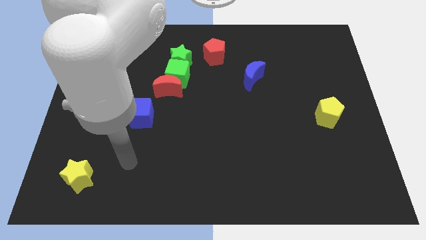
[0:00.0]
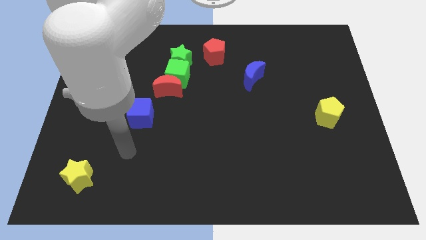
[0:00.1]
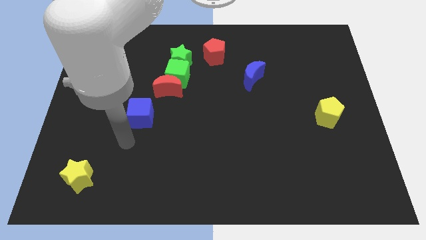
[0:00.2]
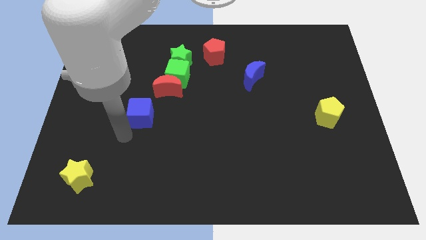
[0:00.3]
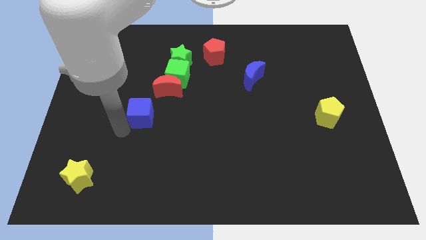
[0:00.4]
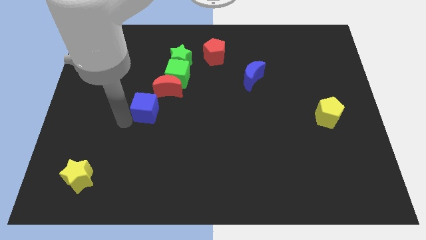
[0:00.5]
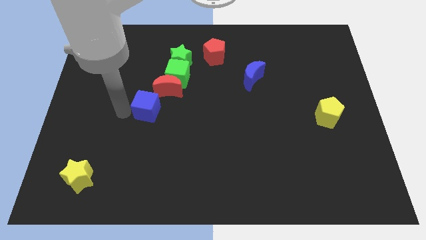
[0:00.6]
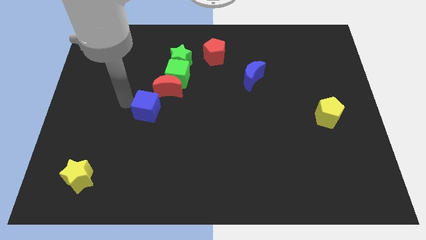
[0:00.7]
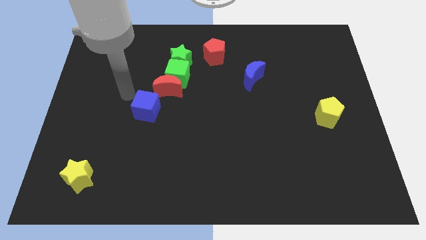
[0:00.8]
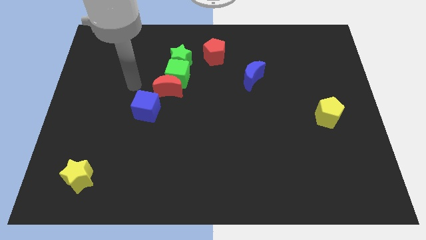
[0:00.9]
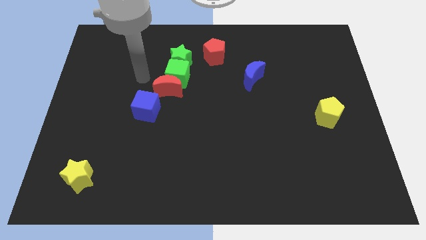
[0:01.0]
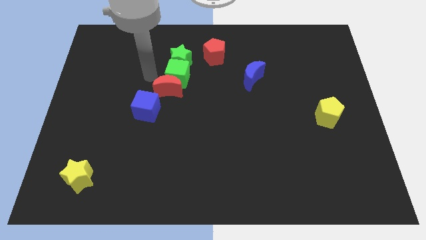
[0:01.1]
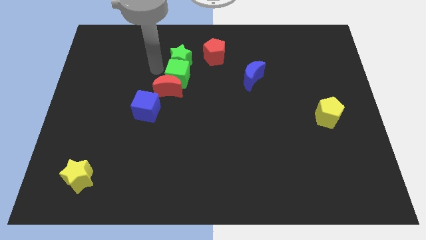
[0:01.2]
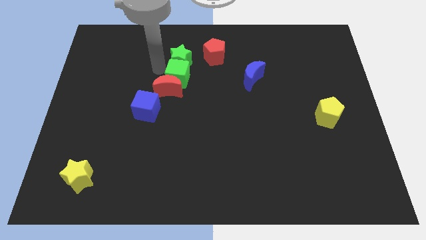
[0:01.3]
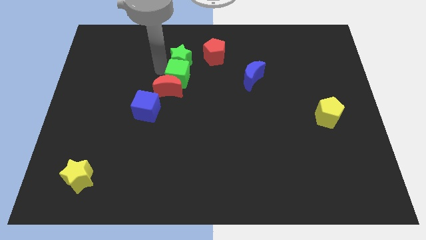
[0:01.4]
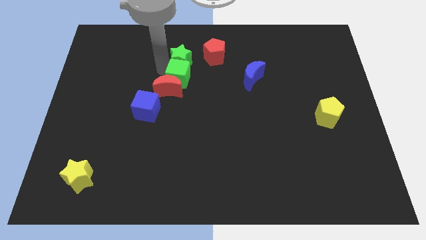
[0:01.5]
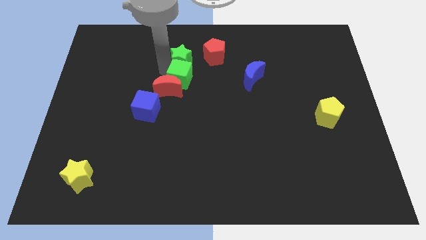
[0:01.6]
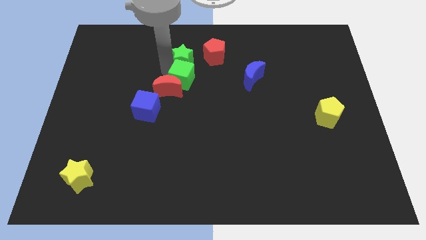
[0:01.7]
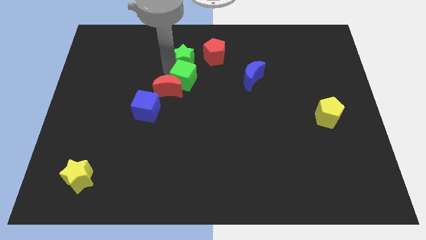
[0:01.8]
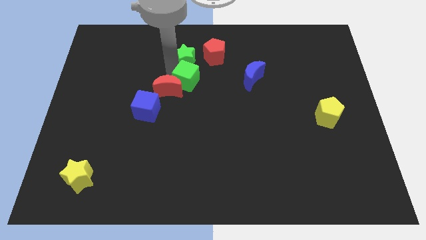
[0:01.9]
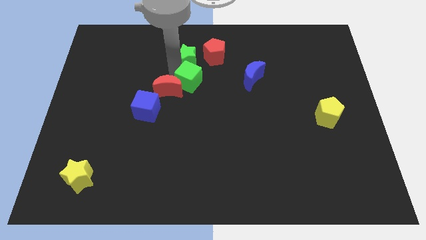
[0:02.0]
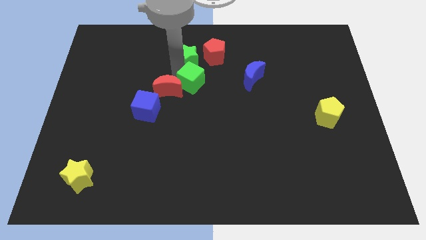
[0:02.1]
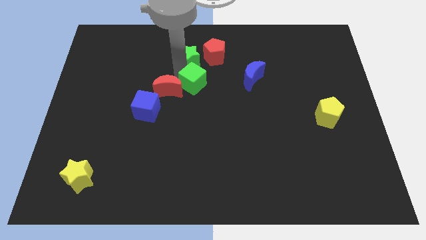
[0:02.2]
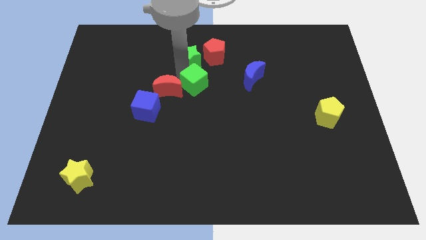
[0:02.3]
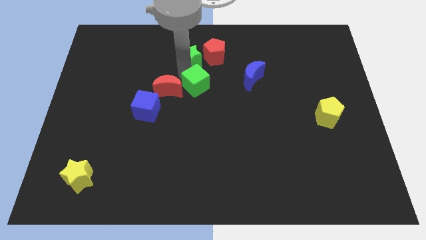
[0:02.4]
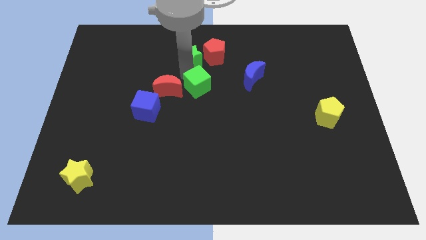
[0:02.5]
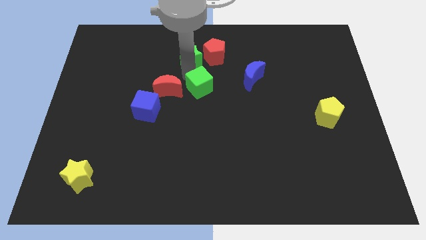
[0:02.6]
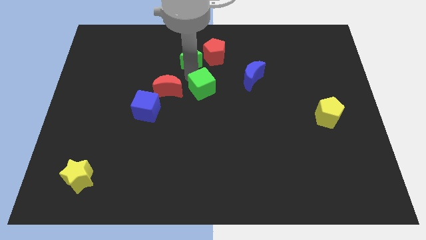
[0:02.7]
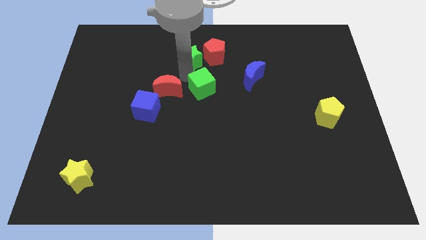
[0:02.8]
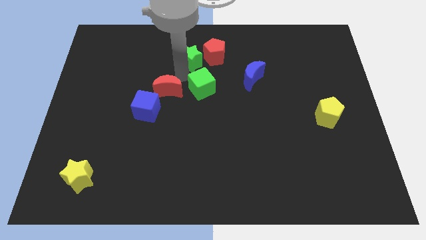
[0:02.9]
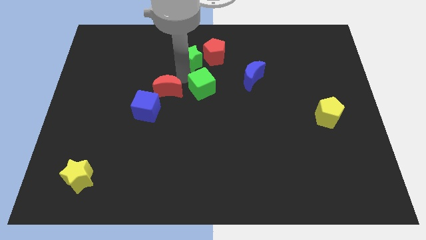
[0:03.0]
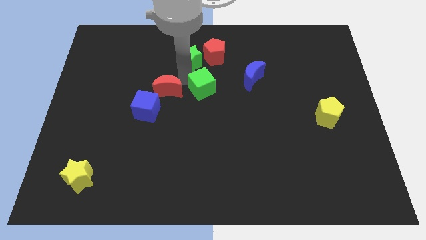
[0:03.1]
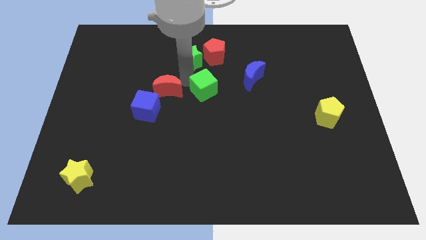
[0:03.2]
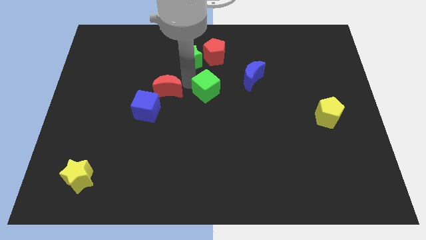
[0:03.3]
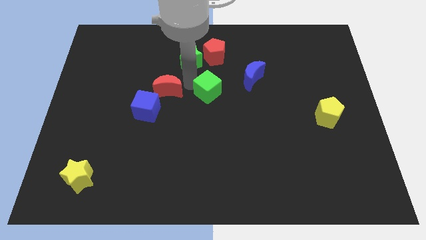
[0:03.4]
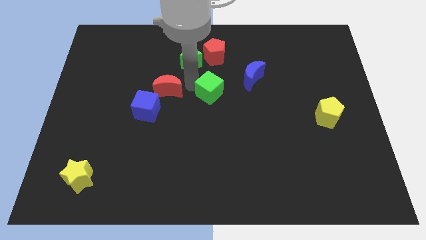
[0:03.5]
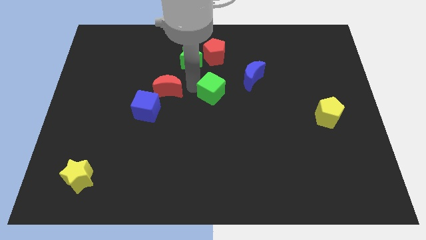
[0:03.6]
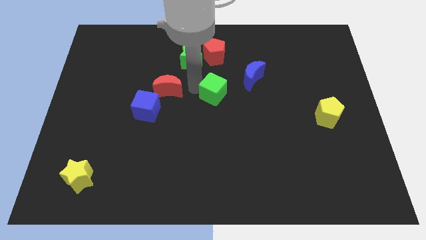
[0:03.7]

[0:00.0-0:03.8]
move the green cube away from the red moon and green star

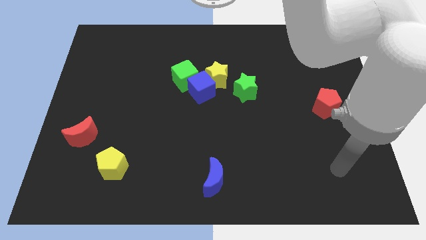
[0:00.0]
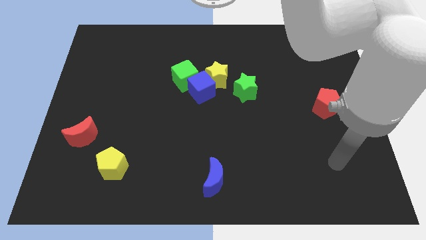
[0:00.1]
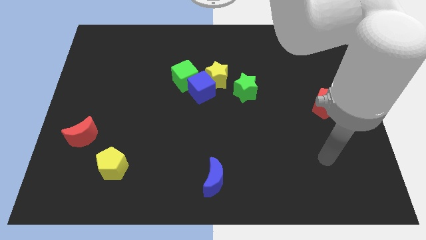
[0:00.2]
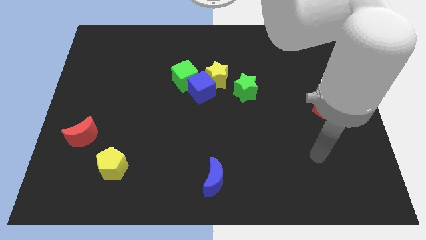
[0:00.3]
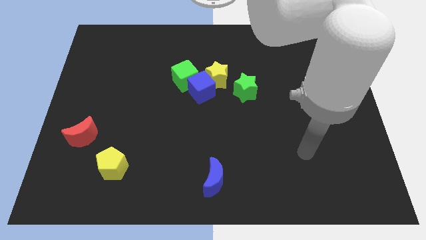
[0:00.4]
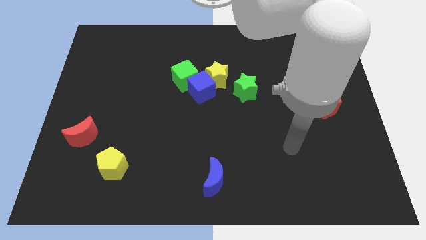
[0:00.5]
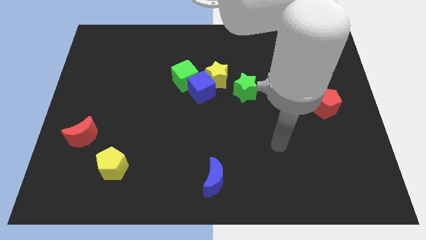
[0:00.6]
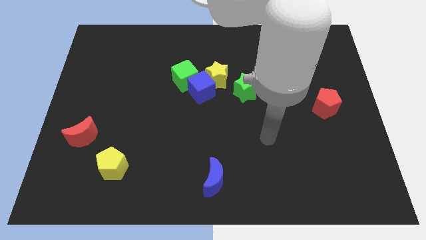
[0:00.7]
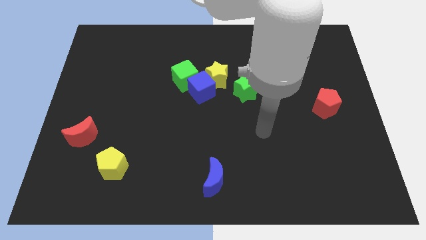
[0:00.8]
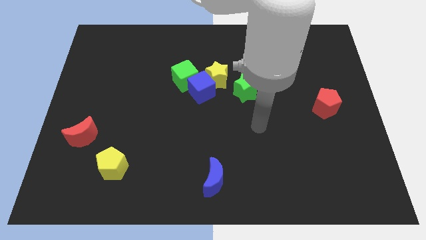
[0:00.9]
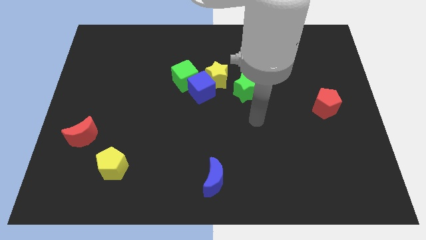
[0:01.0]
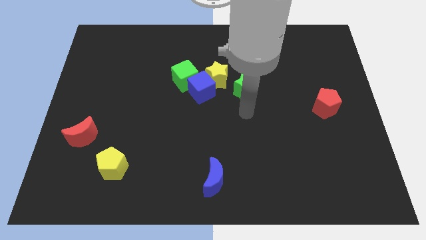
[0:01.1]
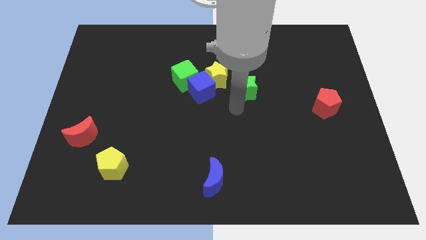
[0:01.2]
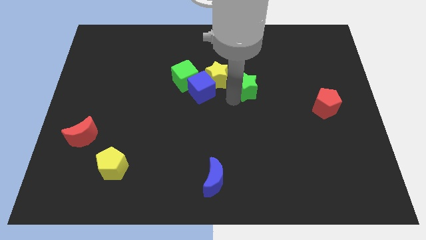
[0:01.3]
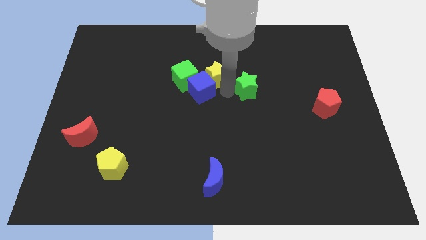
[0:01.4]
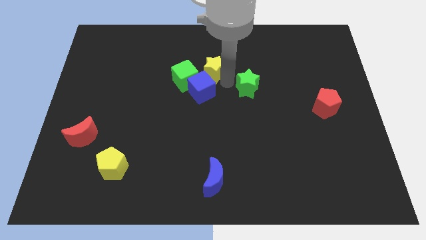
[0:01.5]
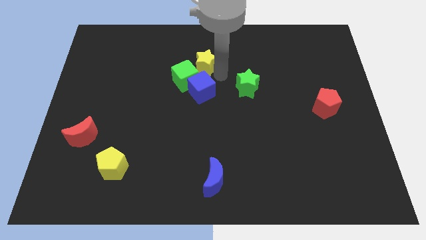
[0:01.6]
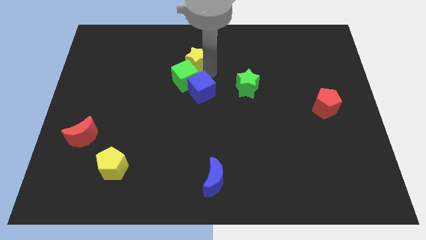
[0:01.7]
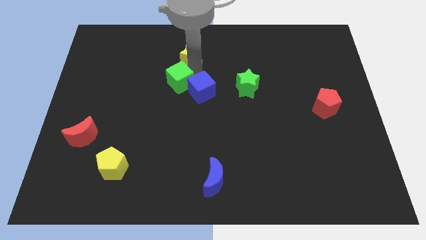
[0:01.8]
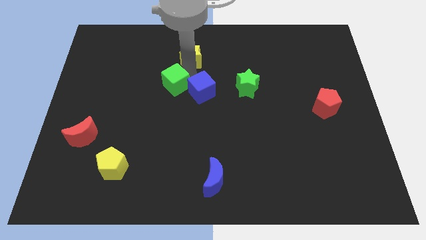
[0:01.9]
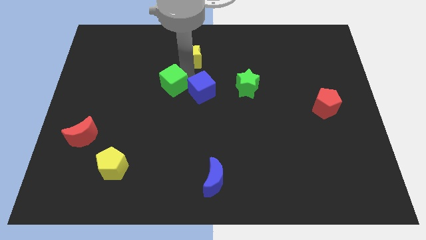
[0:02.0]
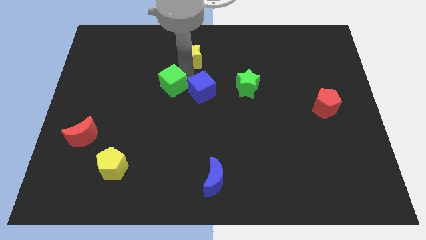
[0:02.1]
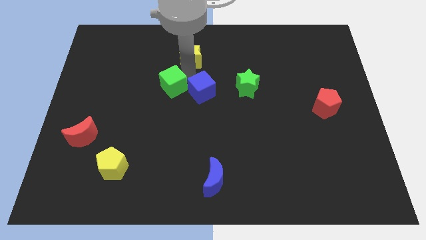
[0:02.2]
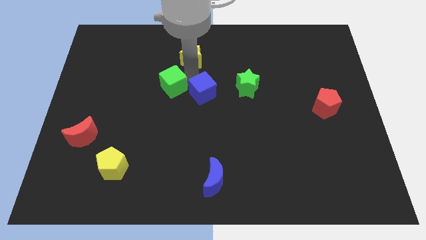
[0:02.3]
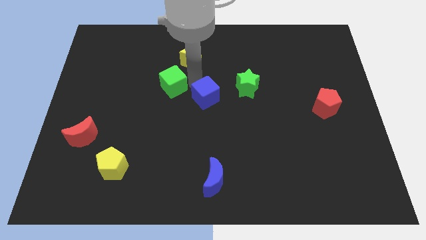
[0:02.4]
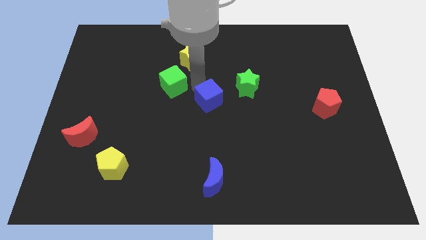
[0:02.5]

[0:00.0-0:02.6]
separate the blue cube from the yellow star and green cube

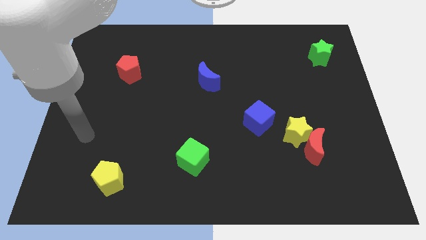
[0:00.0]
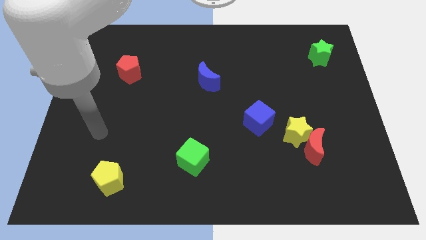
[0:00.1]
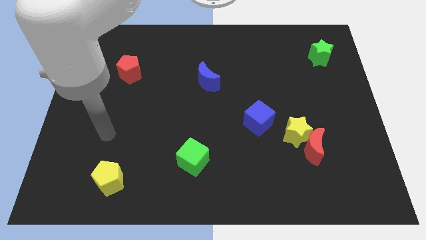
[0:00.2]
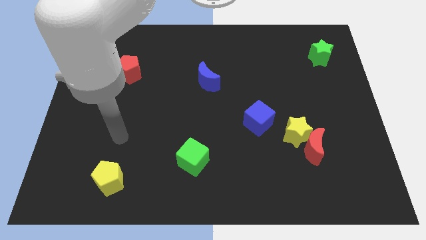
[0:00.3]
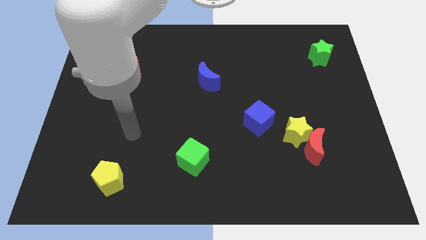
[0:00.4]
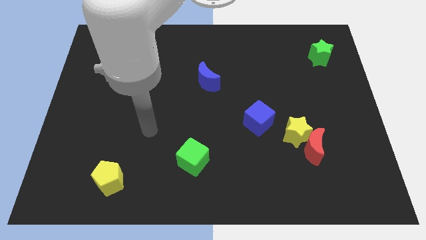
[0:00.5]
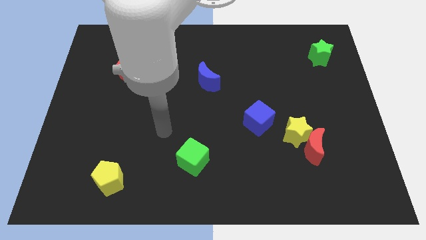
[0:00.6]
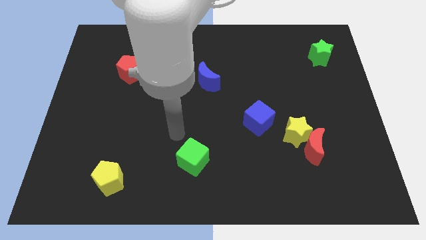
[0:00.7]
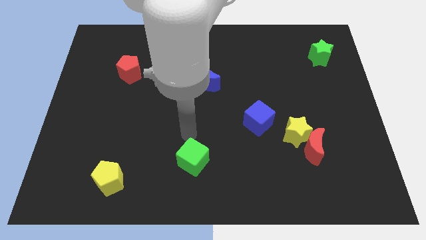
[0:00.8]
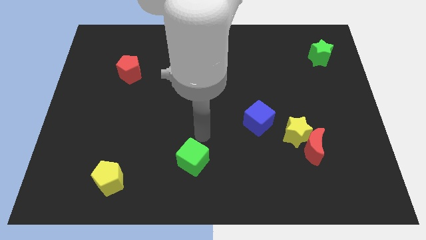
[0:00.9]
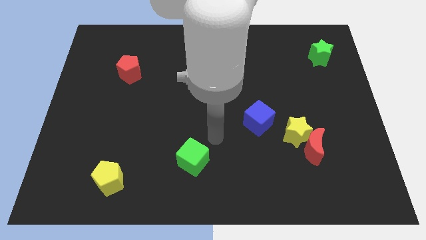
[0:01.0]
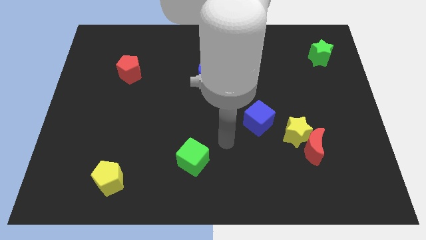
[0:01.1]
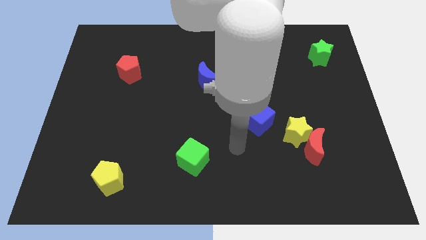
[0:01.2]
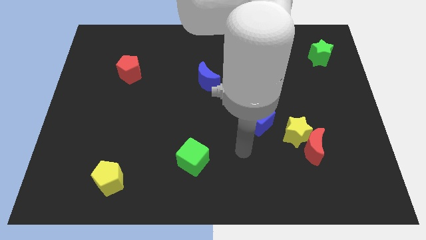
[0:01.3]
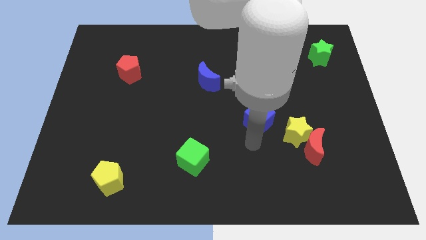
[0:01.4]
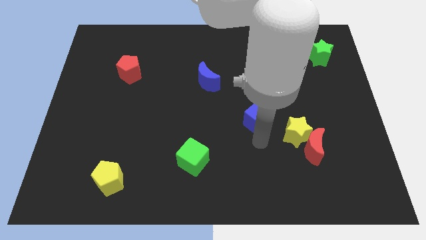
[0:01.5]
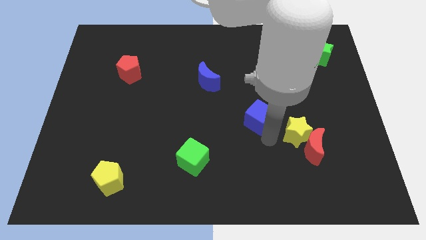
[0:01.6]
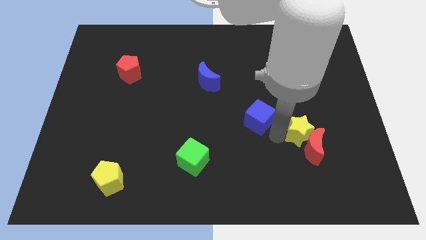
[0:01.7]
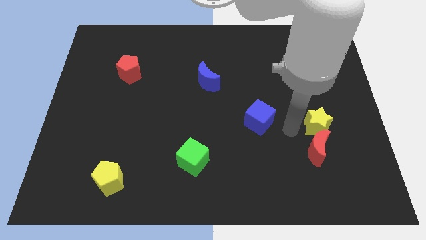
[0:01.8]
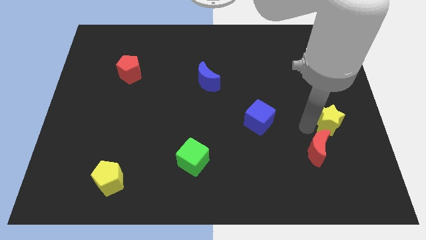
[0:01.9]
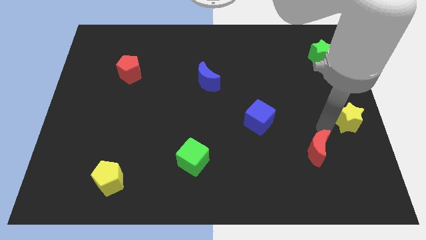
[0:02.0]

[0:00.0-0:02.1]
pull the red moon apart from the yellow star

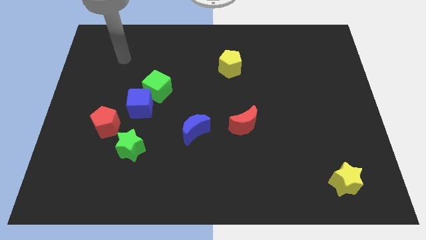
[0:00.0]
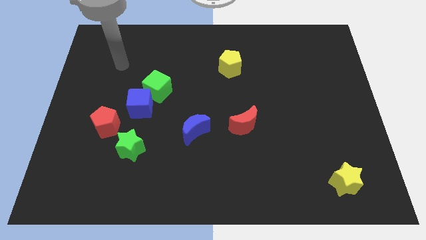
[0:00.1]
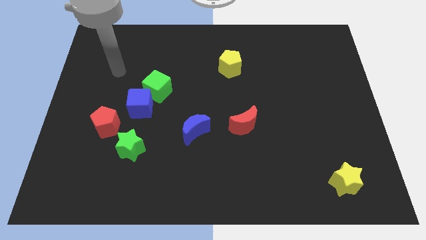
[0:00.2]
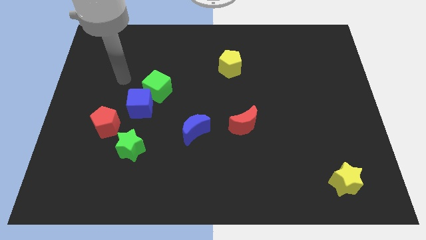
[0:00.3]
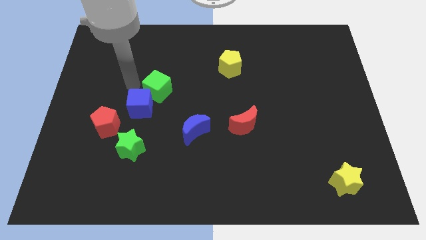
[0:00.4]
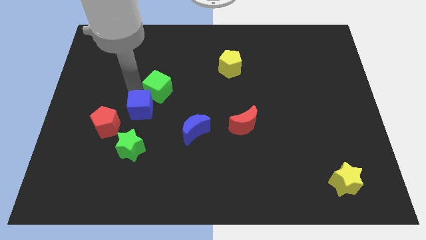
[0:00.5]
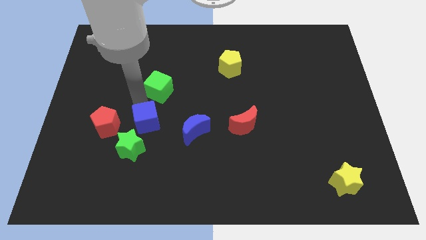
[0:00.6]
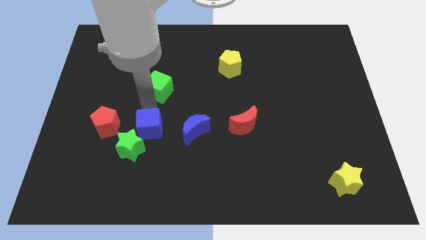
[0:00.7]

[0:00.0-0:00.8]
pull the green cube apart from the blue cube
